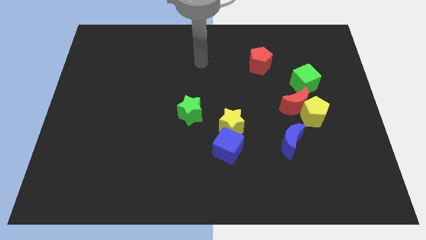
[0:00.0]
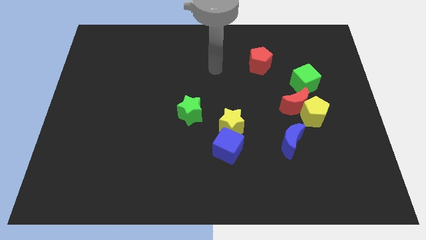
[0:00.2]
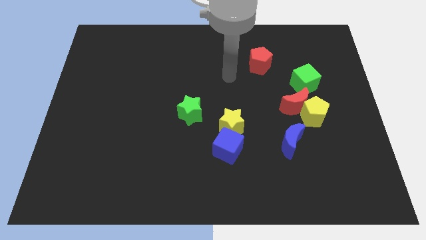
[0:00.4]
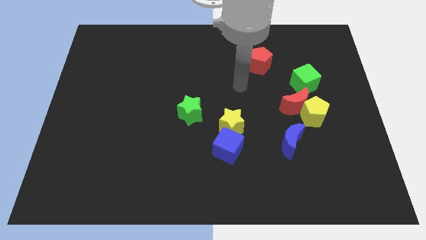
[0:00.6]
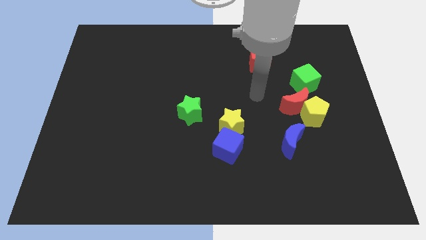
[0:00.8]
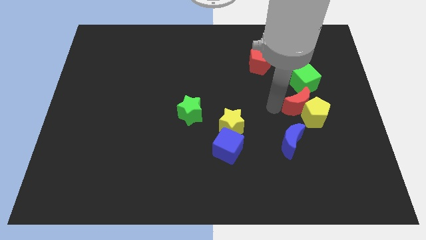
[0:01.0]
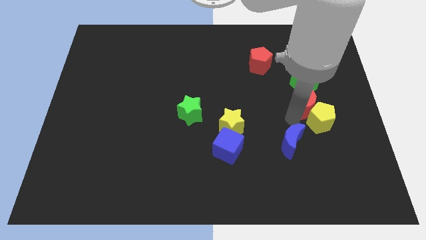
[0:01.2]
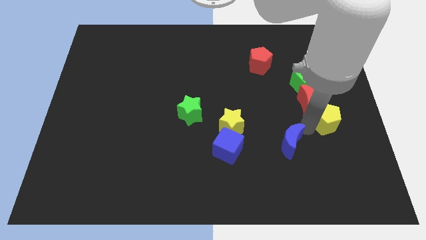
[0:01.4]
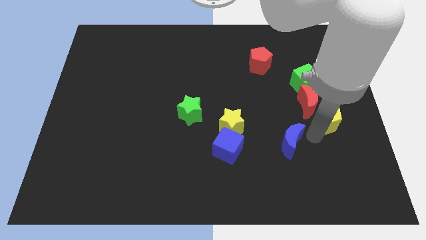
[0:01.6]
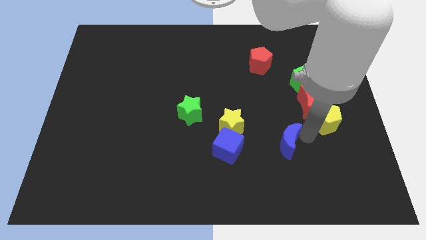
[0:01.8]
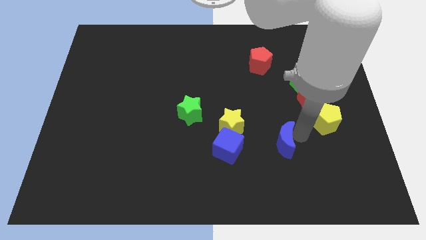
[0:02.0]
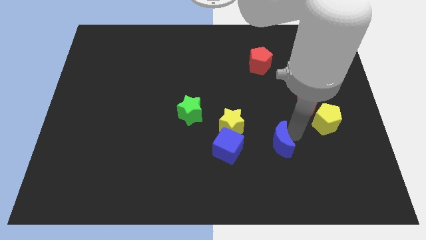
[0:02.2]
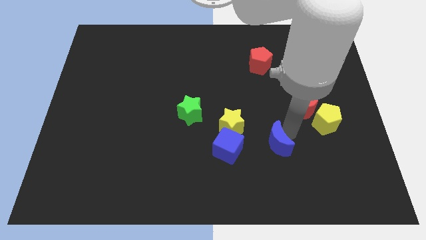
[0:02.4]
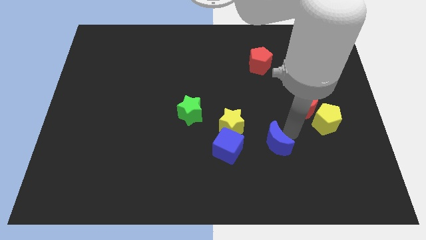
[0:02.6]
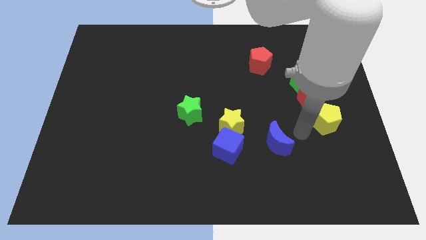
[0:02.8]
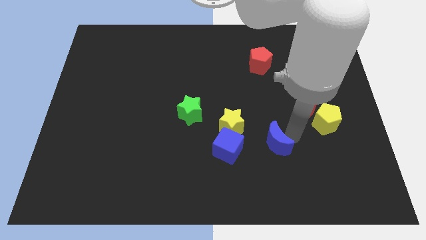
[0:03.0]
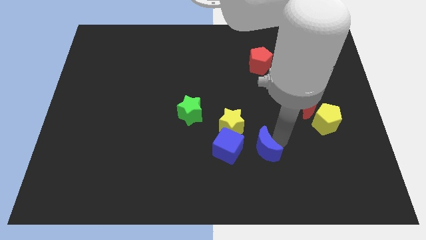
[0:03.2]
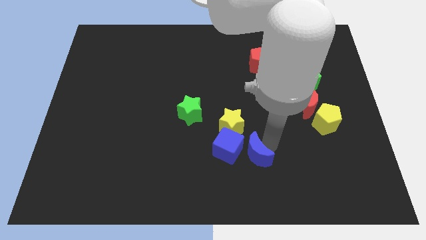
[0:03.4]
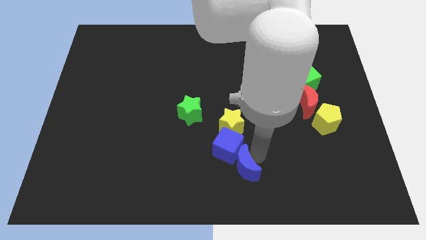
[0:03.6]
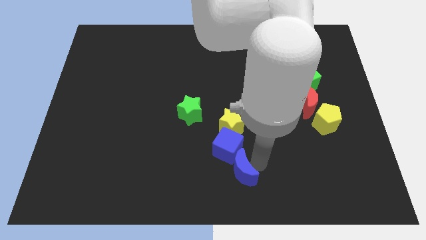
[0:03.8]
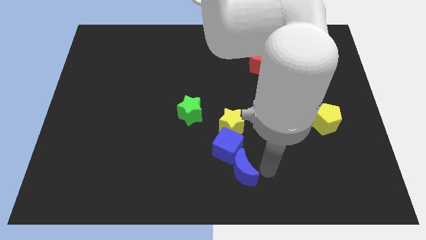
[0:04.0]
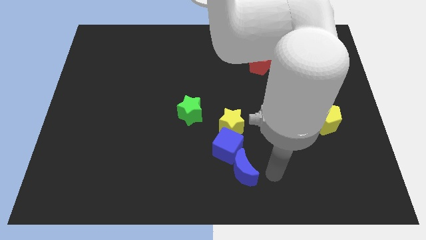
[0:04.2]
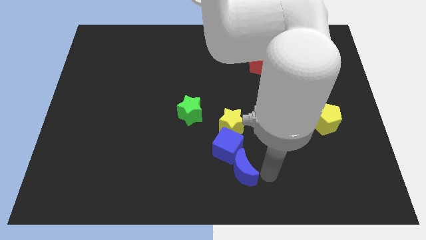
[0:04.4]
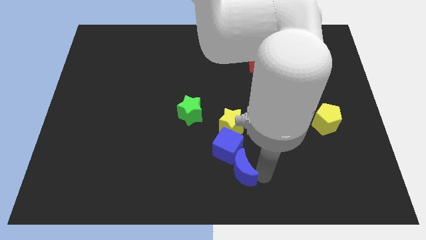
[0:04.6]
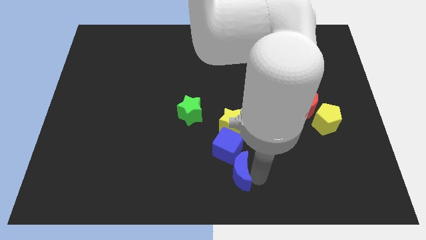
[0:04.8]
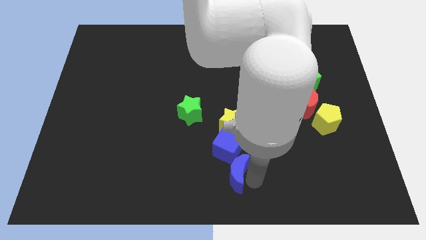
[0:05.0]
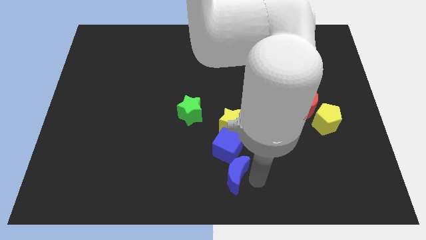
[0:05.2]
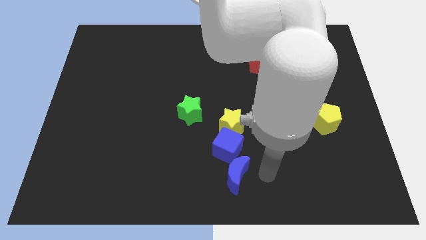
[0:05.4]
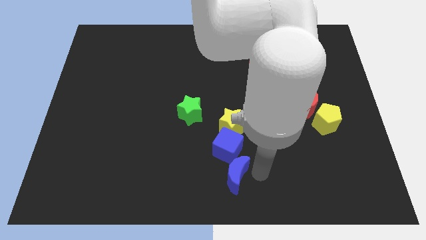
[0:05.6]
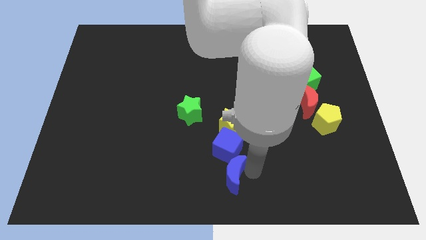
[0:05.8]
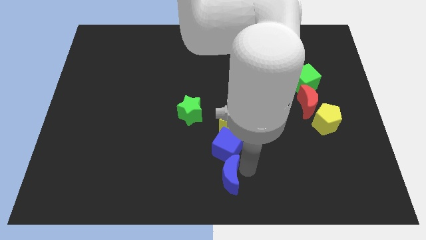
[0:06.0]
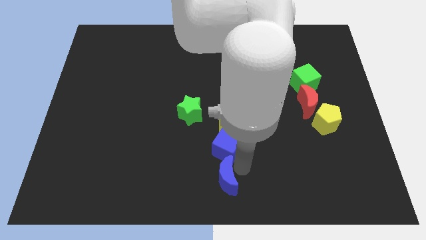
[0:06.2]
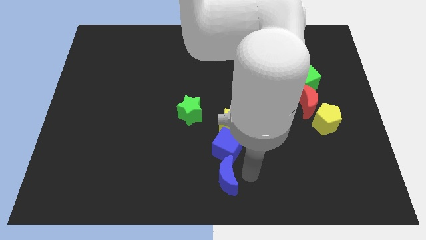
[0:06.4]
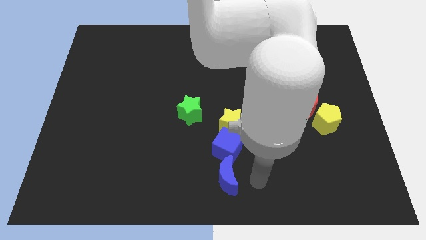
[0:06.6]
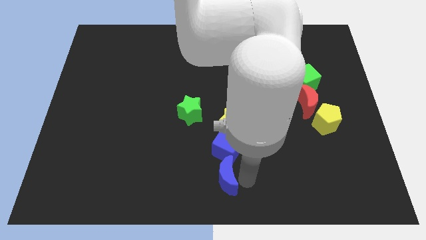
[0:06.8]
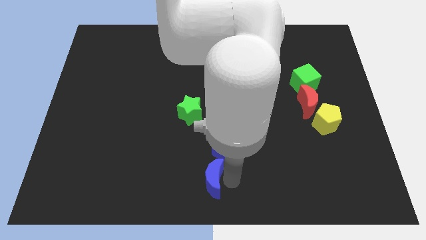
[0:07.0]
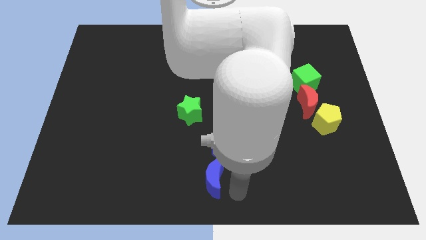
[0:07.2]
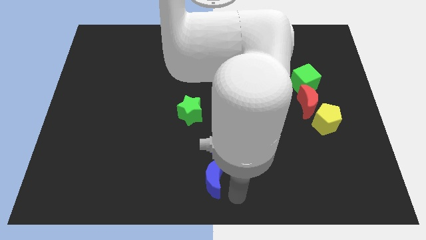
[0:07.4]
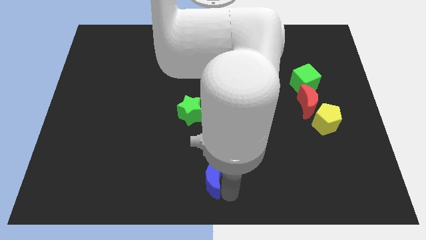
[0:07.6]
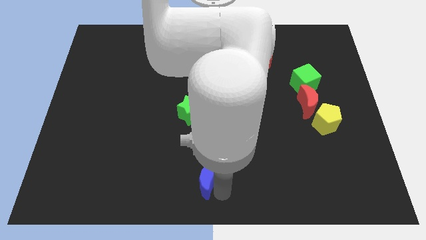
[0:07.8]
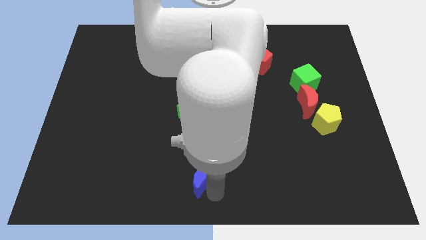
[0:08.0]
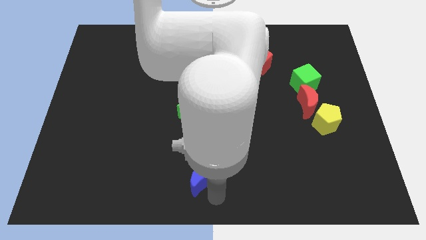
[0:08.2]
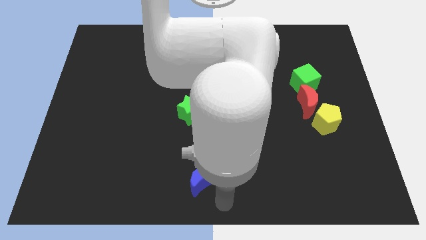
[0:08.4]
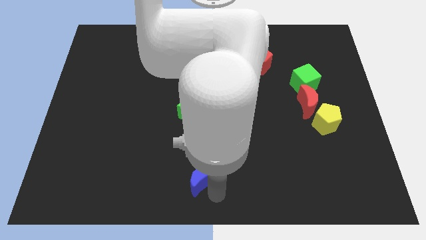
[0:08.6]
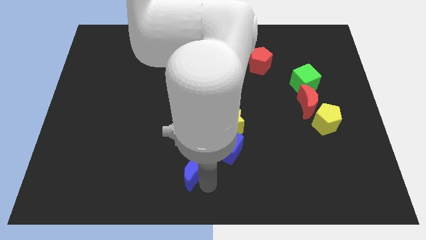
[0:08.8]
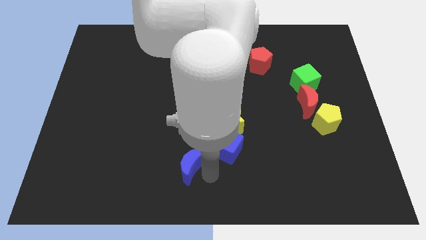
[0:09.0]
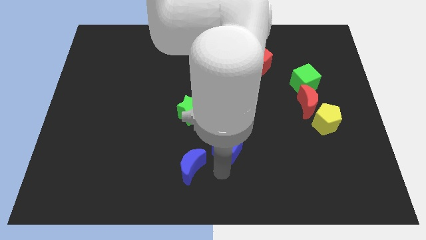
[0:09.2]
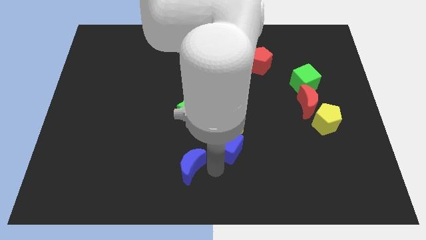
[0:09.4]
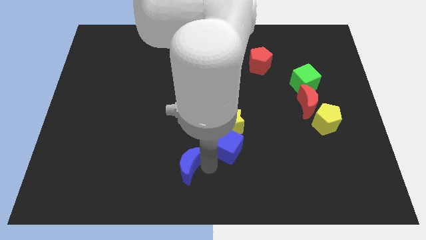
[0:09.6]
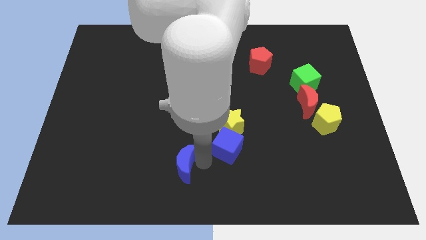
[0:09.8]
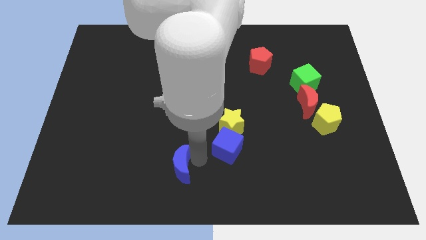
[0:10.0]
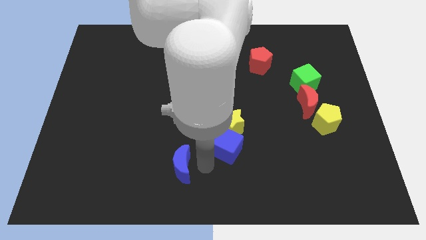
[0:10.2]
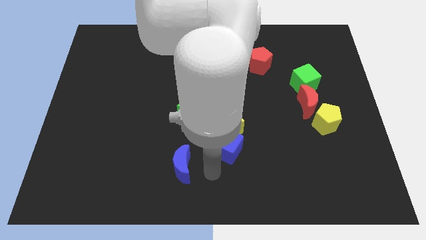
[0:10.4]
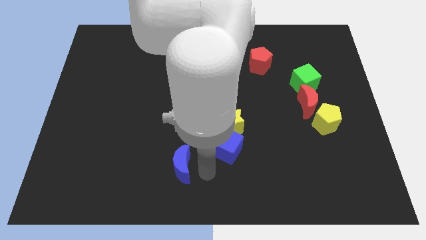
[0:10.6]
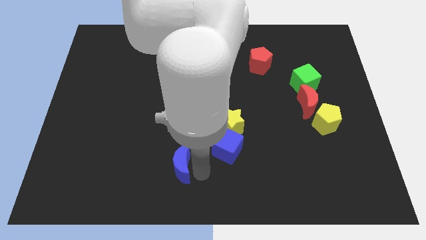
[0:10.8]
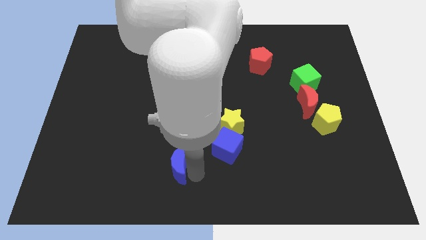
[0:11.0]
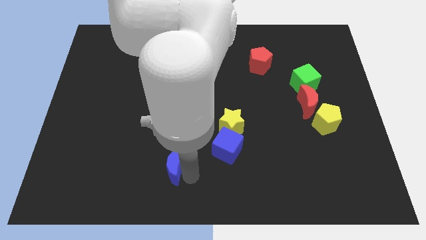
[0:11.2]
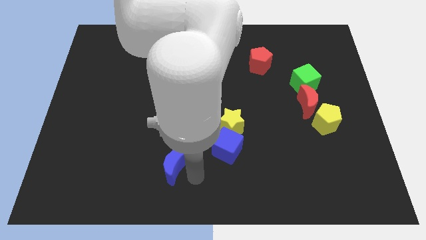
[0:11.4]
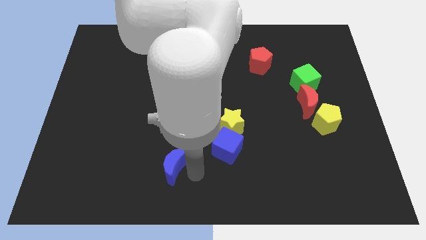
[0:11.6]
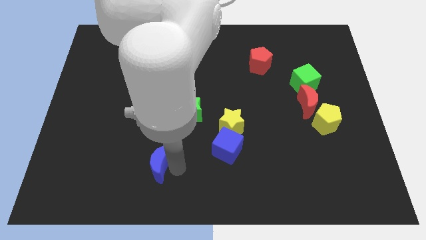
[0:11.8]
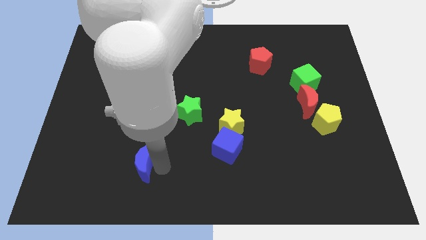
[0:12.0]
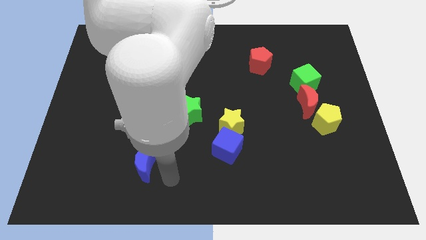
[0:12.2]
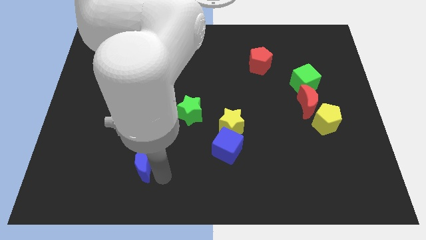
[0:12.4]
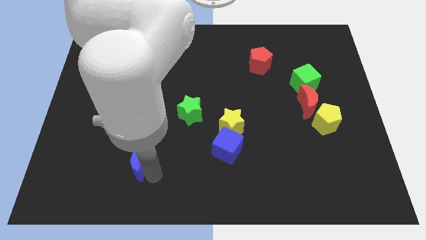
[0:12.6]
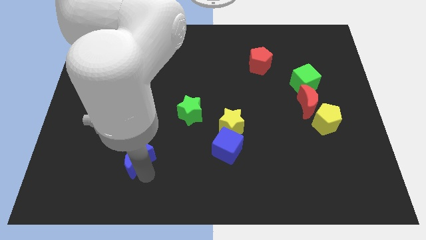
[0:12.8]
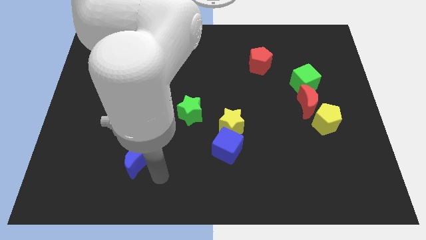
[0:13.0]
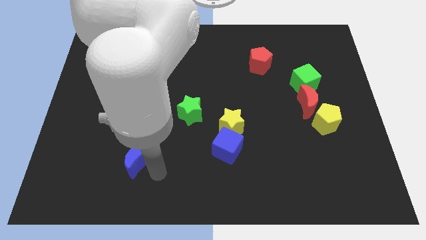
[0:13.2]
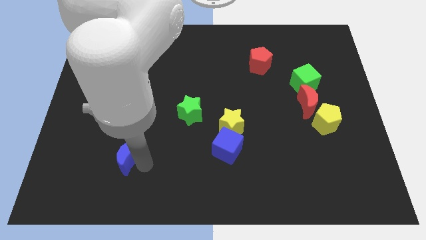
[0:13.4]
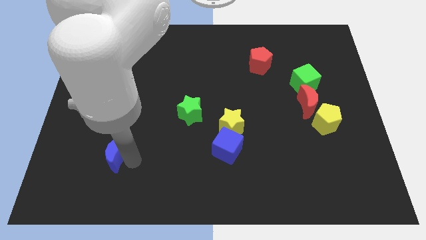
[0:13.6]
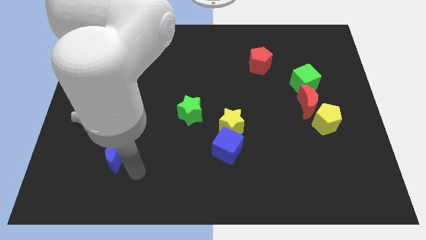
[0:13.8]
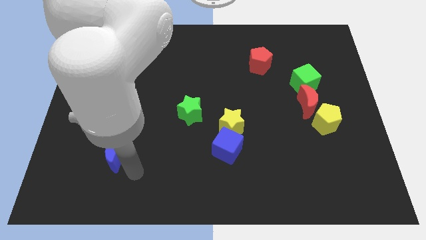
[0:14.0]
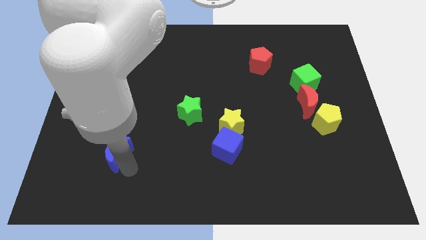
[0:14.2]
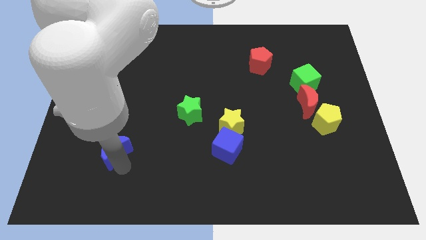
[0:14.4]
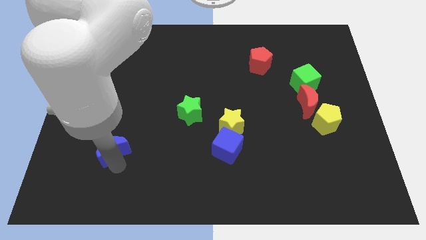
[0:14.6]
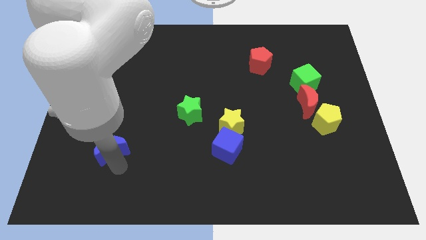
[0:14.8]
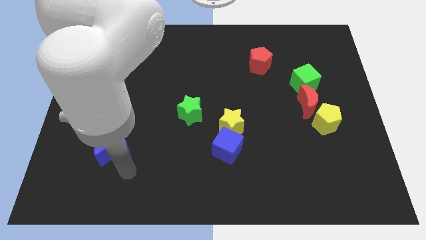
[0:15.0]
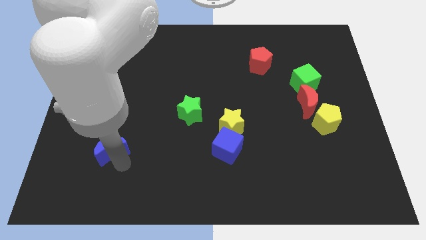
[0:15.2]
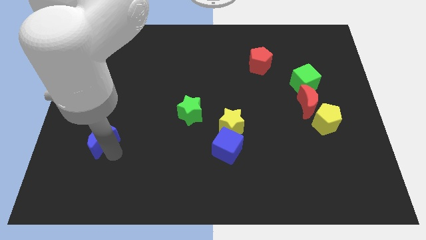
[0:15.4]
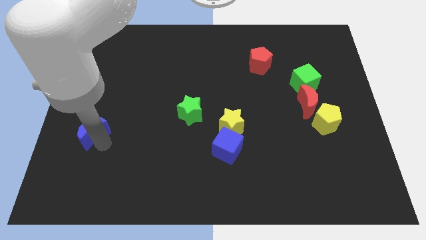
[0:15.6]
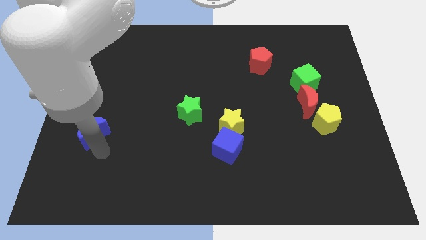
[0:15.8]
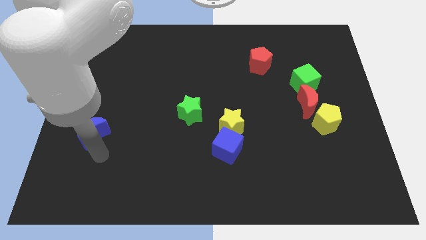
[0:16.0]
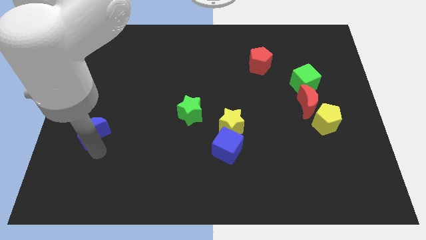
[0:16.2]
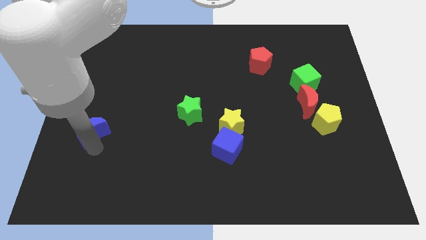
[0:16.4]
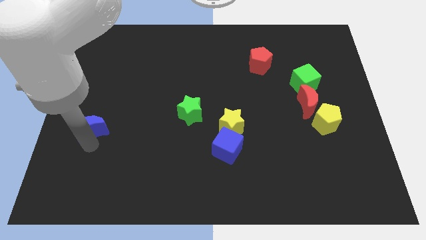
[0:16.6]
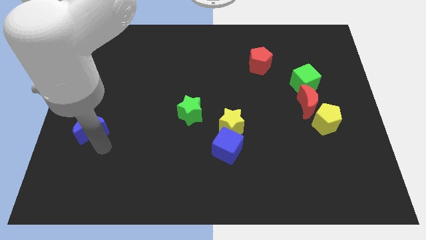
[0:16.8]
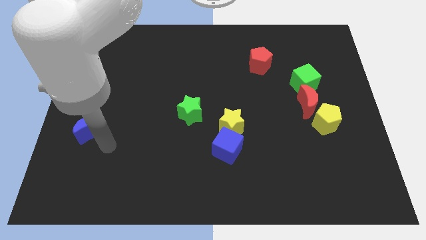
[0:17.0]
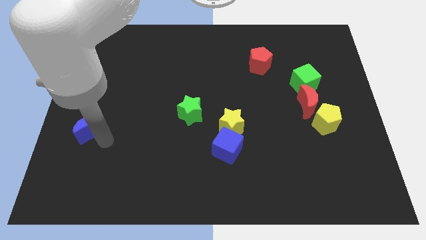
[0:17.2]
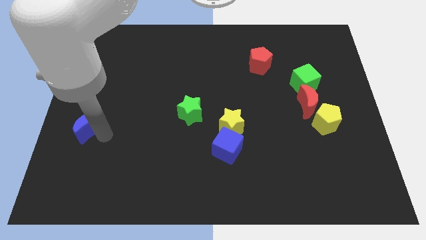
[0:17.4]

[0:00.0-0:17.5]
push the blue moon to the left side of the board
